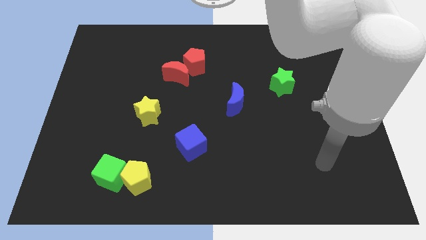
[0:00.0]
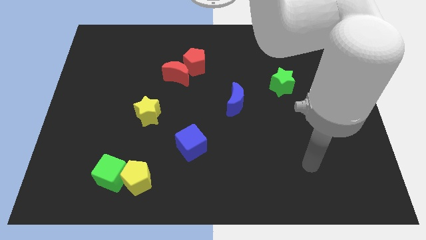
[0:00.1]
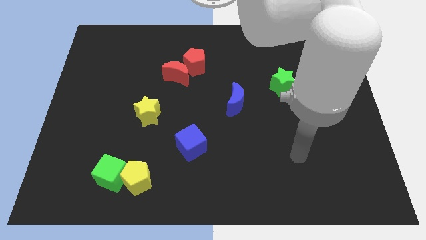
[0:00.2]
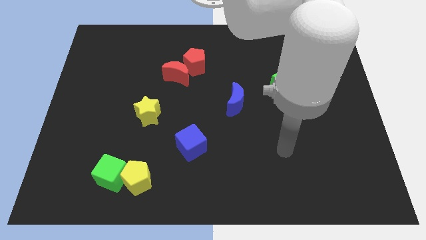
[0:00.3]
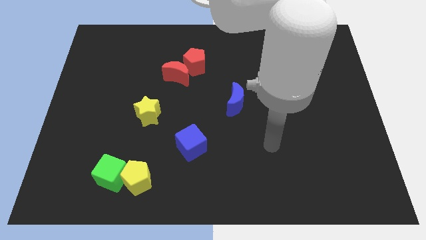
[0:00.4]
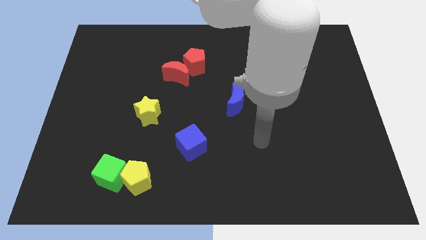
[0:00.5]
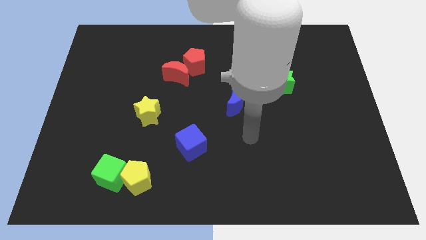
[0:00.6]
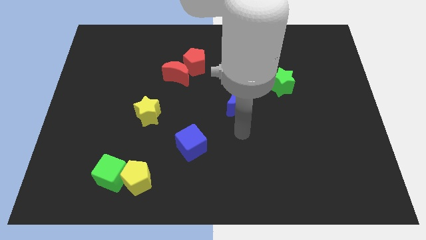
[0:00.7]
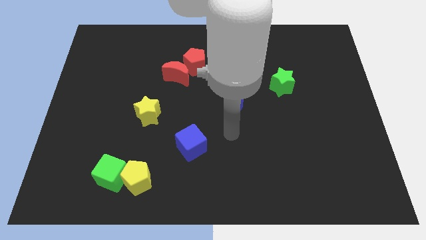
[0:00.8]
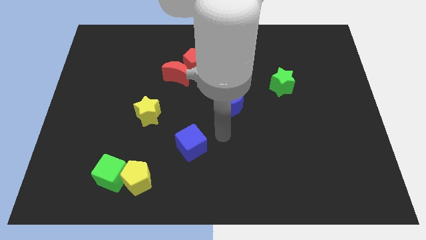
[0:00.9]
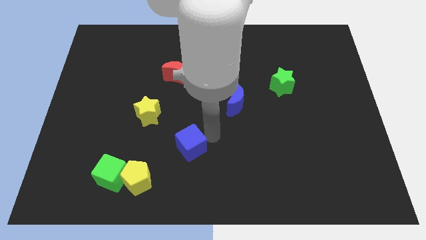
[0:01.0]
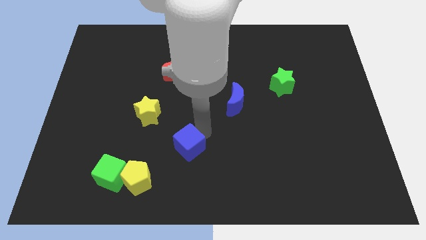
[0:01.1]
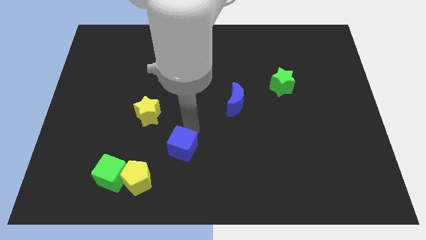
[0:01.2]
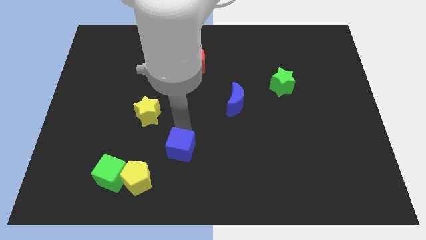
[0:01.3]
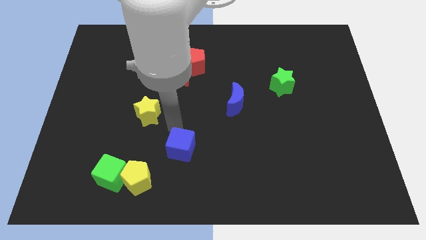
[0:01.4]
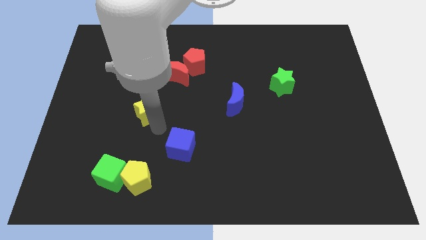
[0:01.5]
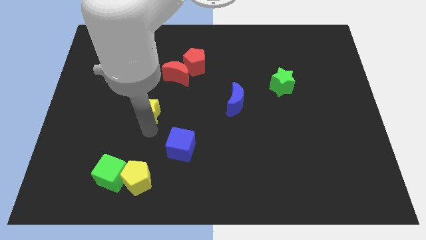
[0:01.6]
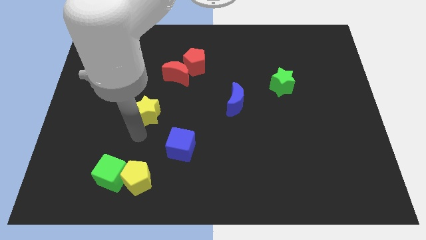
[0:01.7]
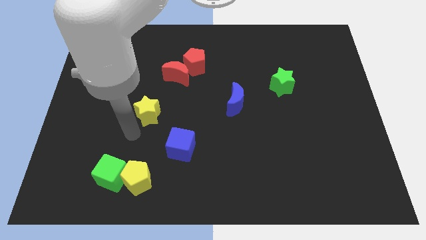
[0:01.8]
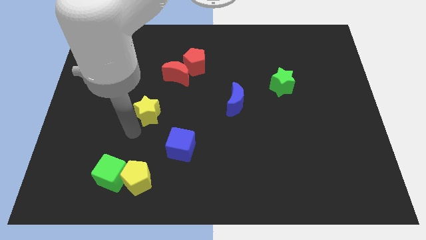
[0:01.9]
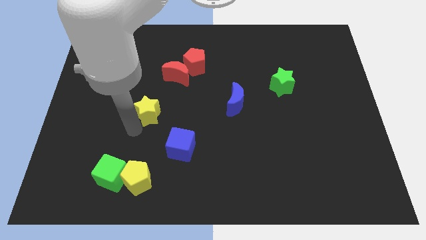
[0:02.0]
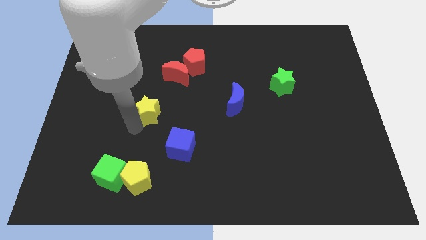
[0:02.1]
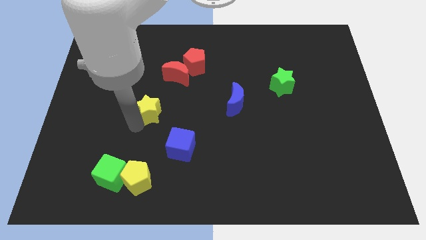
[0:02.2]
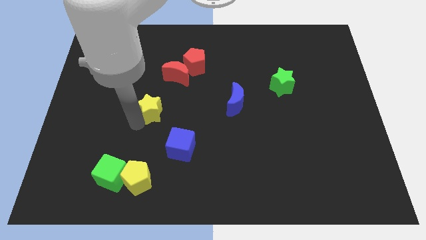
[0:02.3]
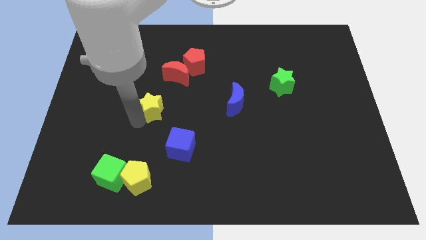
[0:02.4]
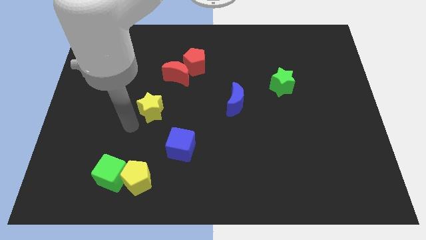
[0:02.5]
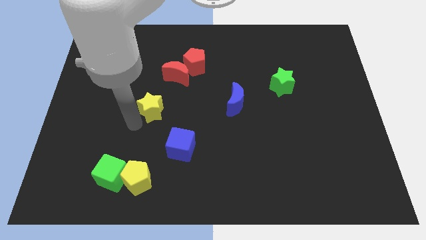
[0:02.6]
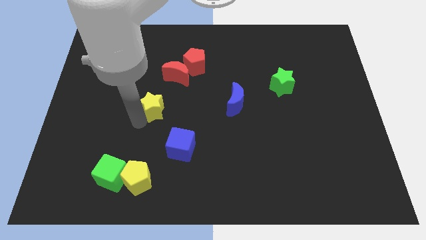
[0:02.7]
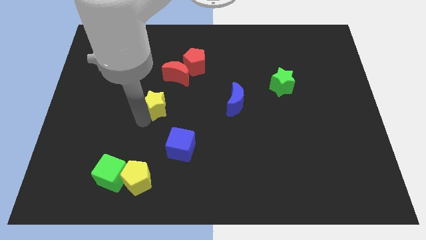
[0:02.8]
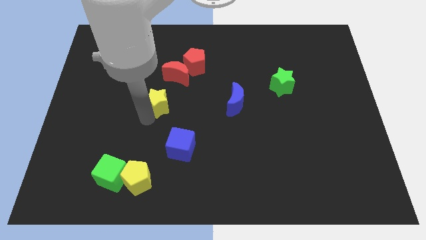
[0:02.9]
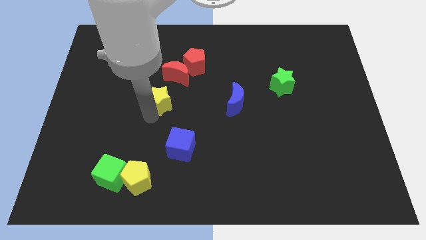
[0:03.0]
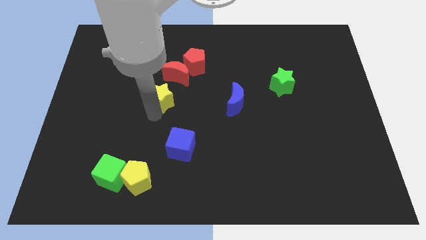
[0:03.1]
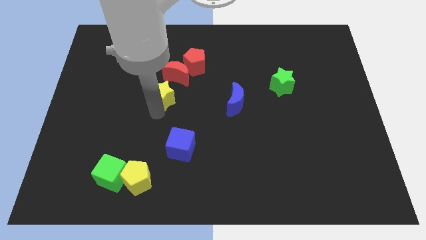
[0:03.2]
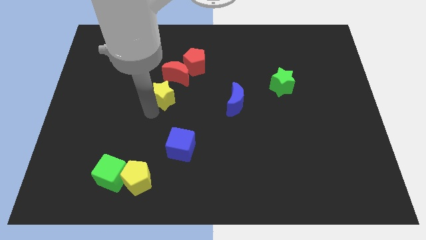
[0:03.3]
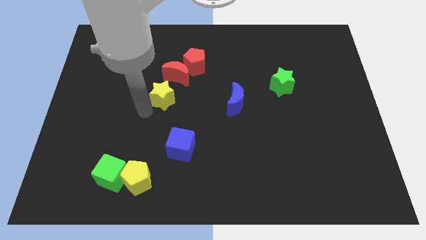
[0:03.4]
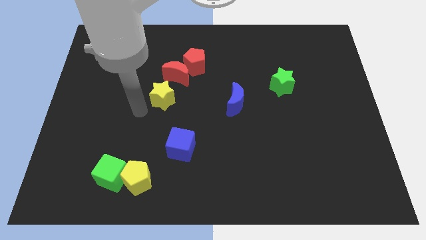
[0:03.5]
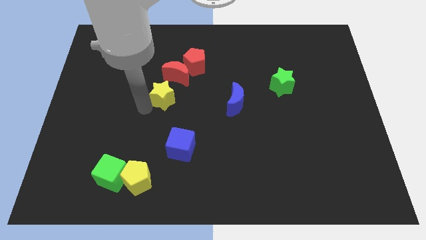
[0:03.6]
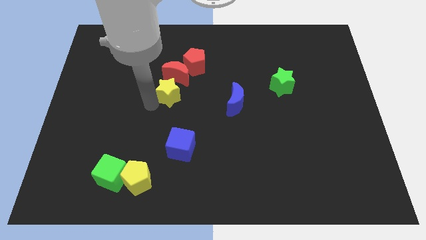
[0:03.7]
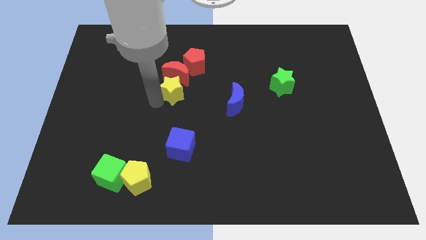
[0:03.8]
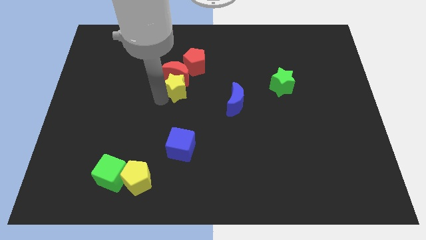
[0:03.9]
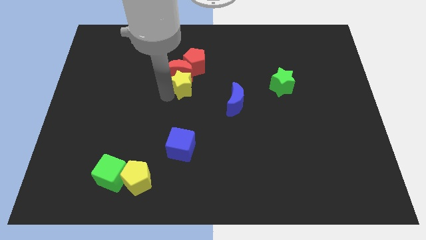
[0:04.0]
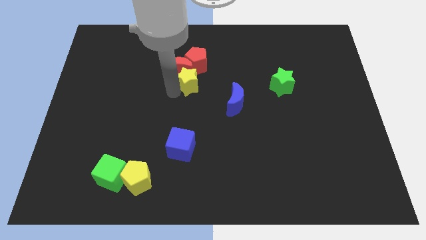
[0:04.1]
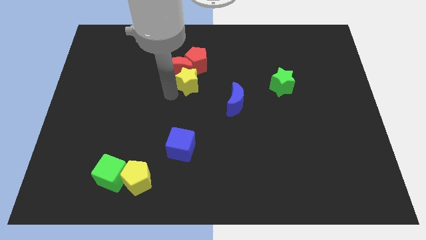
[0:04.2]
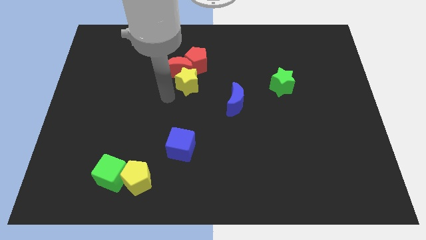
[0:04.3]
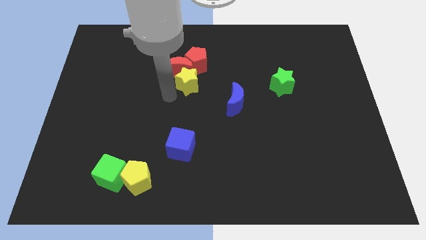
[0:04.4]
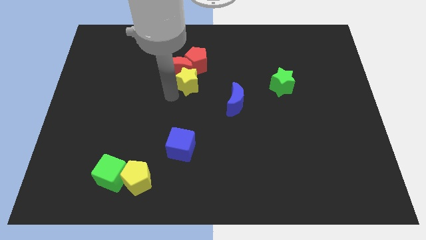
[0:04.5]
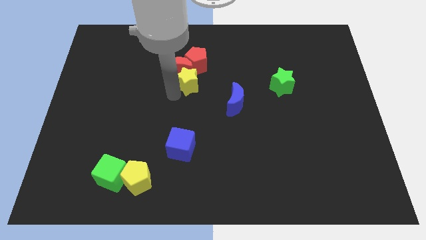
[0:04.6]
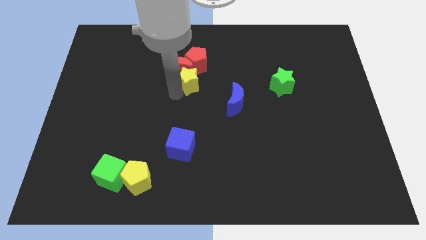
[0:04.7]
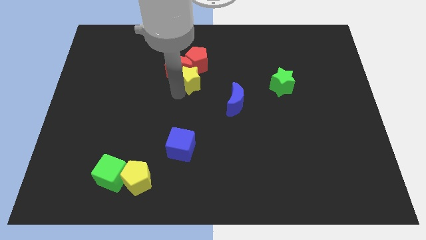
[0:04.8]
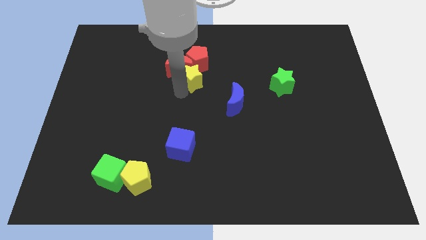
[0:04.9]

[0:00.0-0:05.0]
put the yellow star to the red pentagon

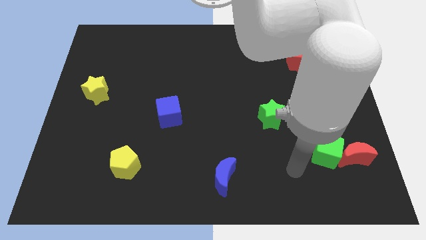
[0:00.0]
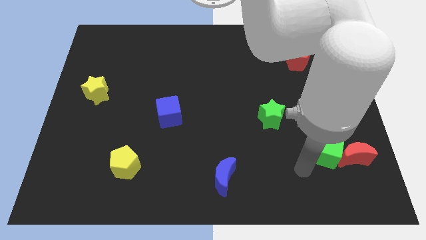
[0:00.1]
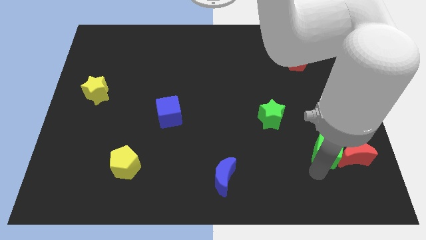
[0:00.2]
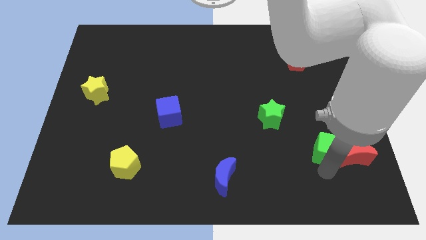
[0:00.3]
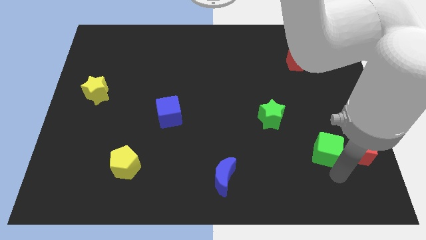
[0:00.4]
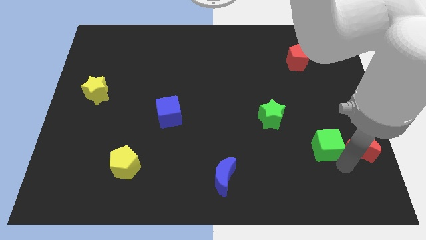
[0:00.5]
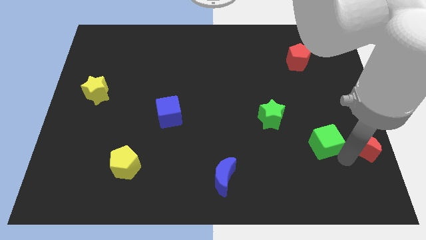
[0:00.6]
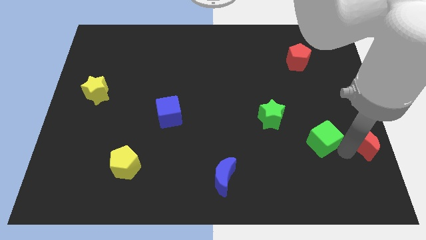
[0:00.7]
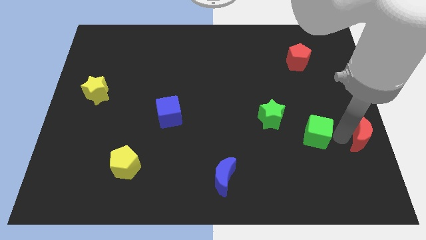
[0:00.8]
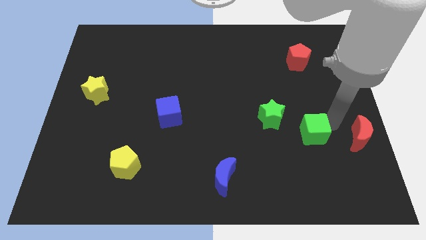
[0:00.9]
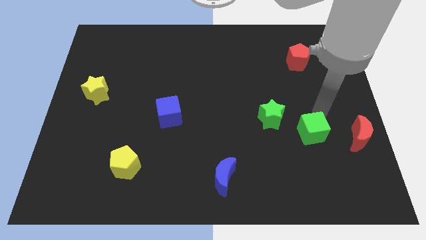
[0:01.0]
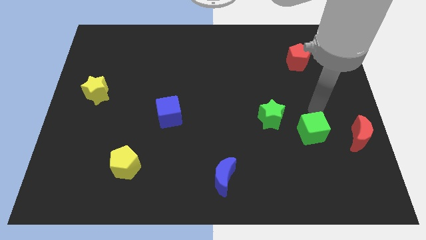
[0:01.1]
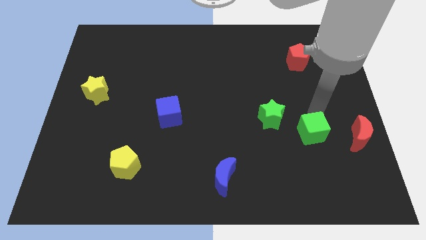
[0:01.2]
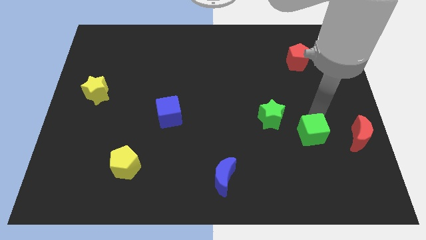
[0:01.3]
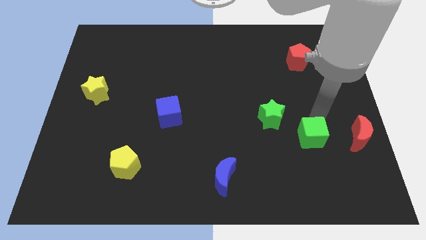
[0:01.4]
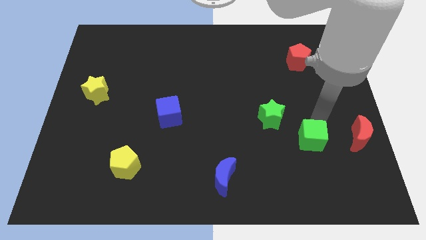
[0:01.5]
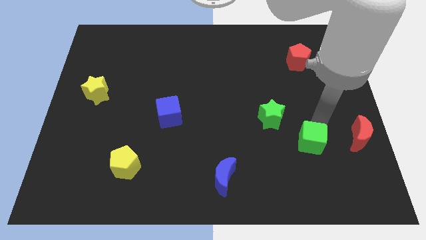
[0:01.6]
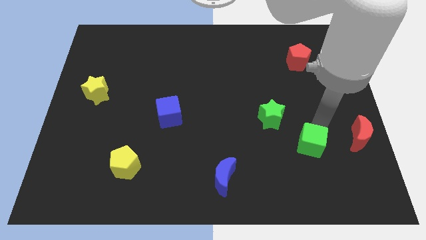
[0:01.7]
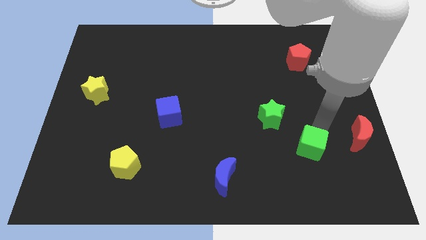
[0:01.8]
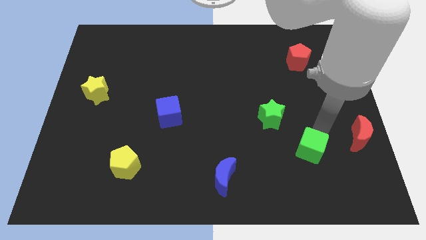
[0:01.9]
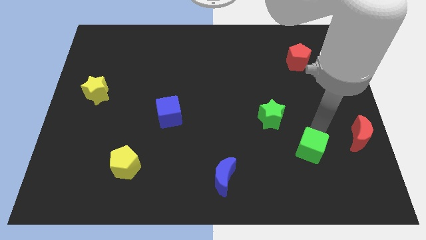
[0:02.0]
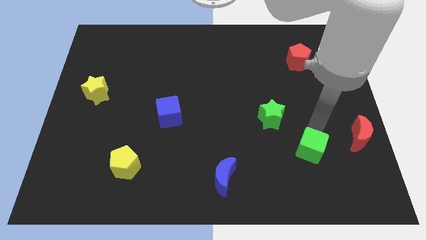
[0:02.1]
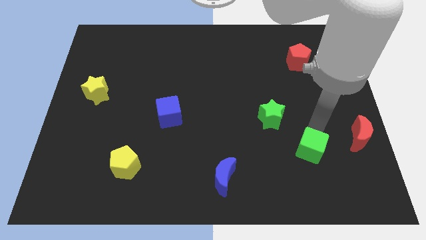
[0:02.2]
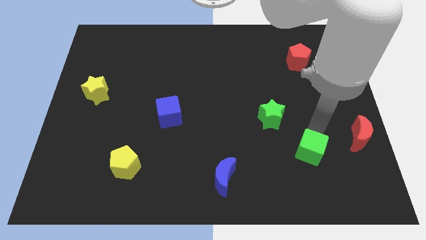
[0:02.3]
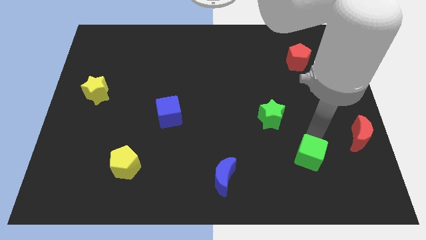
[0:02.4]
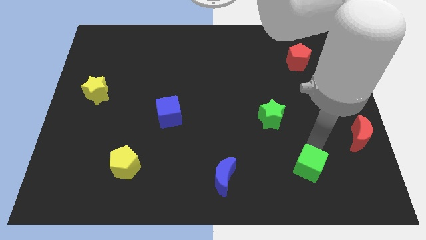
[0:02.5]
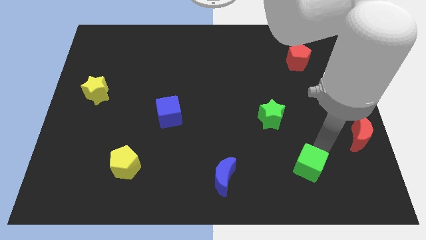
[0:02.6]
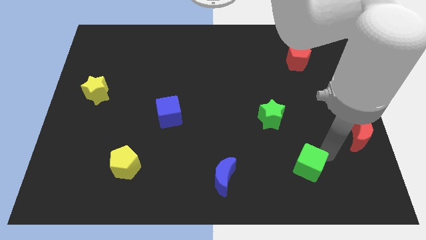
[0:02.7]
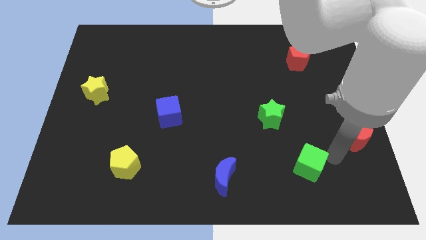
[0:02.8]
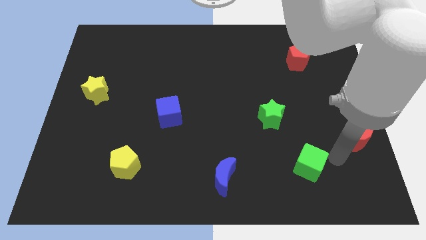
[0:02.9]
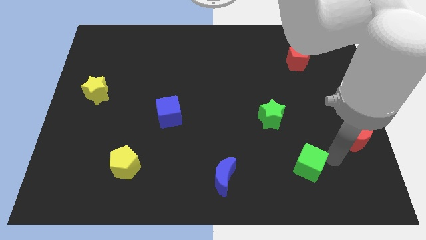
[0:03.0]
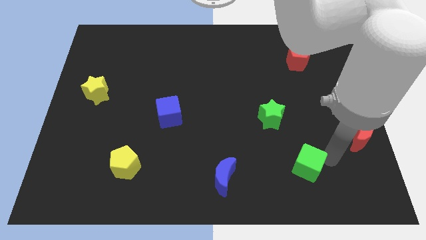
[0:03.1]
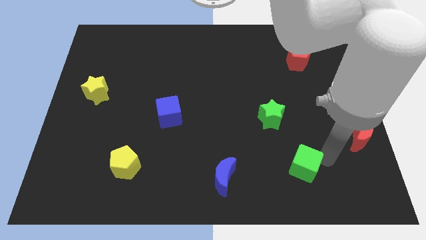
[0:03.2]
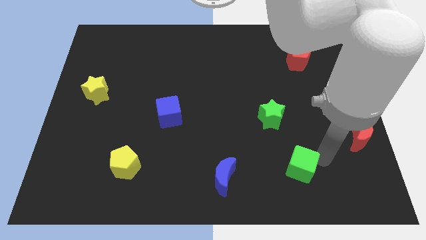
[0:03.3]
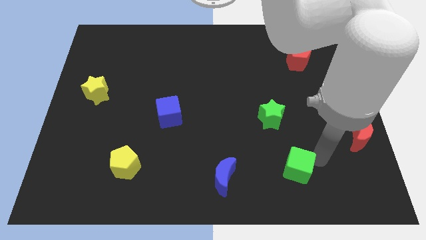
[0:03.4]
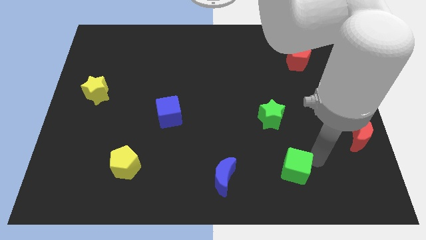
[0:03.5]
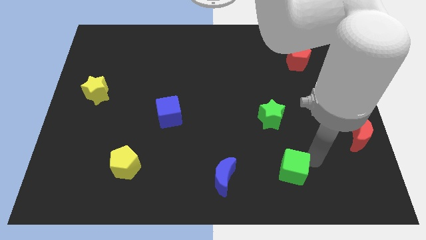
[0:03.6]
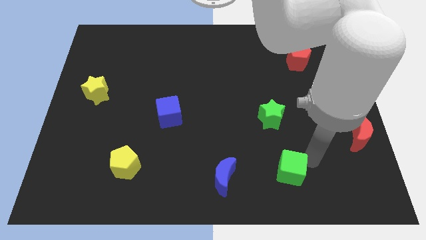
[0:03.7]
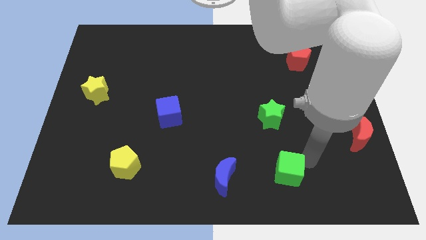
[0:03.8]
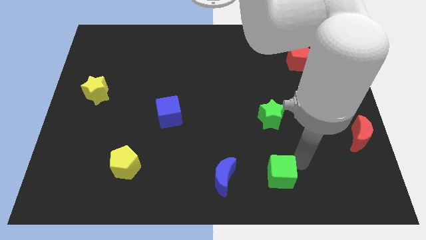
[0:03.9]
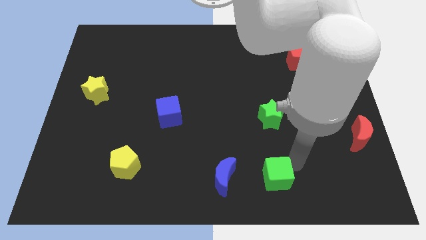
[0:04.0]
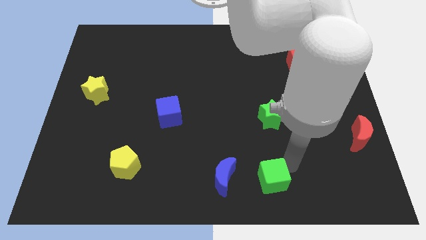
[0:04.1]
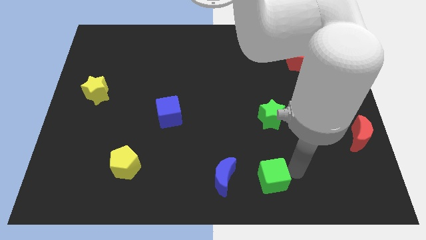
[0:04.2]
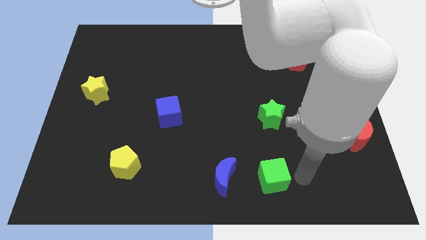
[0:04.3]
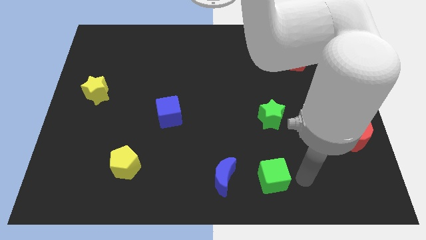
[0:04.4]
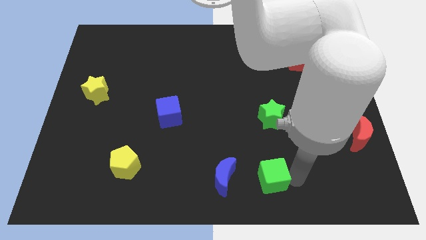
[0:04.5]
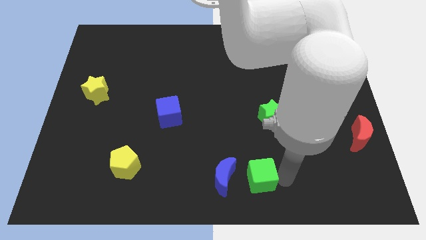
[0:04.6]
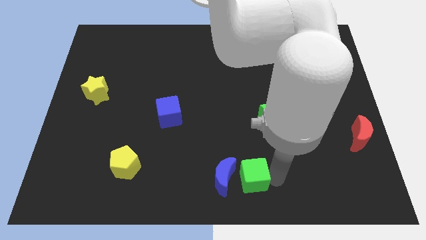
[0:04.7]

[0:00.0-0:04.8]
slide the green cube towards the blue moon
